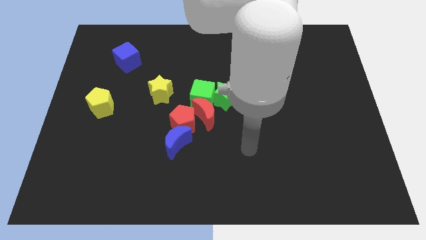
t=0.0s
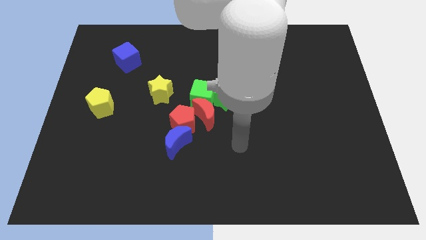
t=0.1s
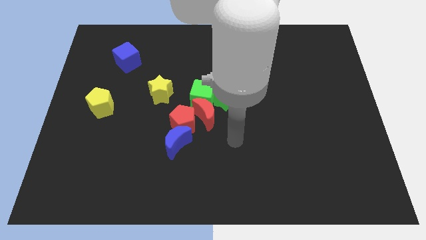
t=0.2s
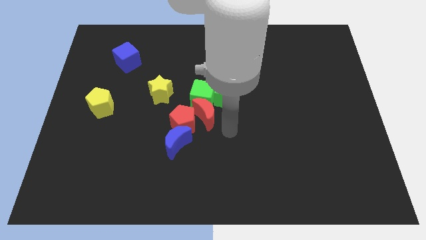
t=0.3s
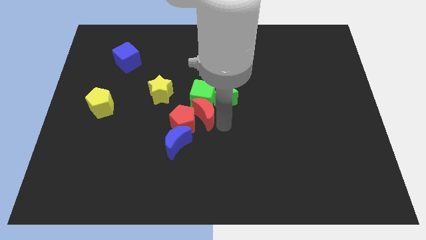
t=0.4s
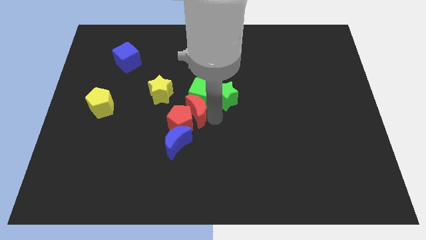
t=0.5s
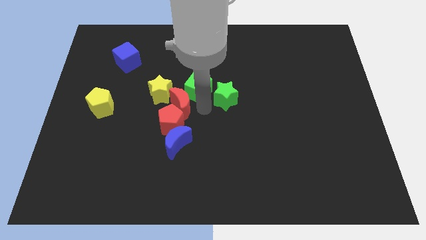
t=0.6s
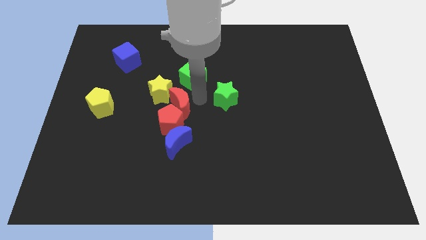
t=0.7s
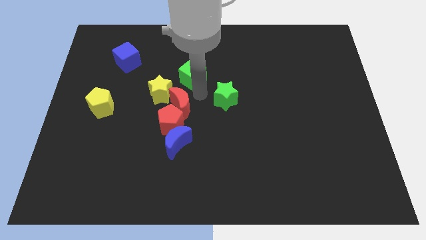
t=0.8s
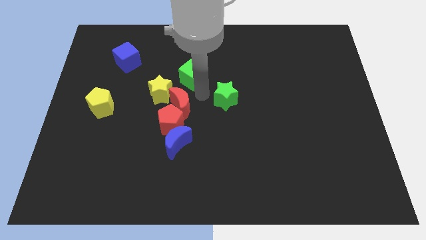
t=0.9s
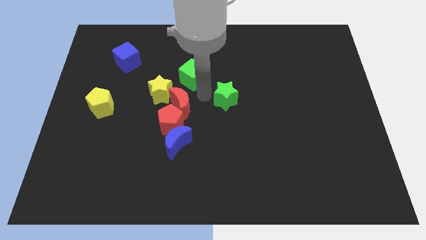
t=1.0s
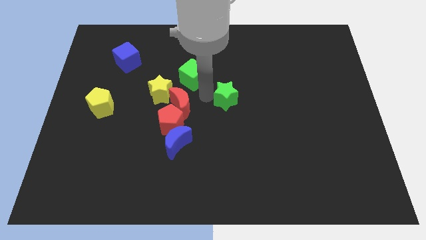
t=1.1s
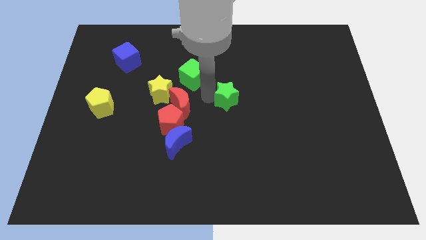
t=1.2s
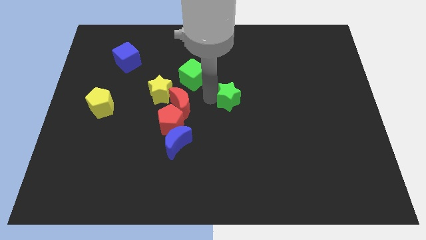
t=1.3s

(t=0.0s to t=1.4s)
move the green star away from the green cube and red moon

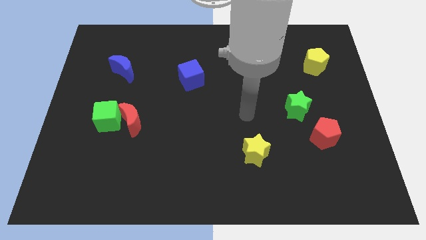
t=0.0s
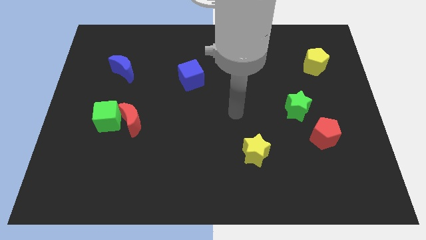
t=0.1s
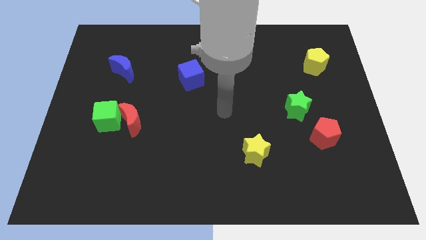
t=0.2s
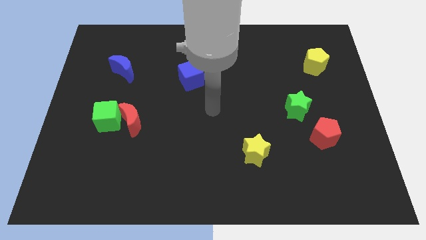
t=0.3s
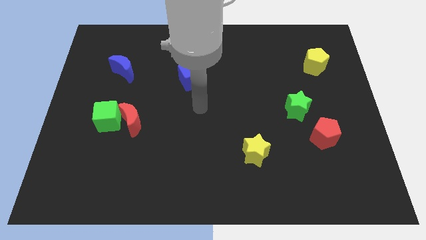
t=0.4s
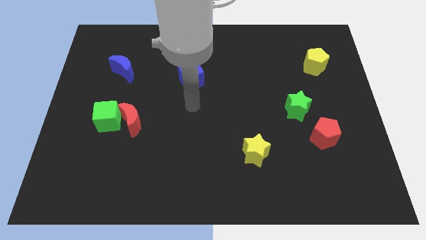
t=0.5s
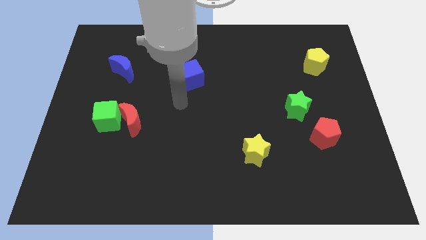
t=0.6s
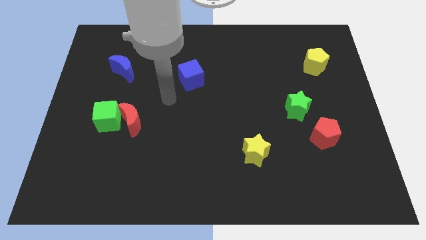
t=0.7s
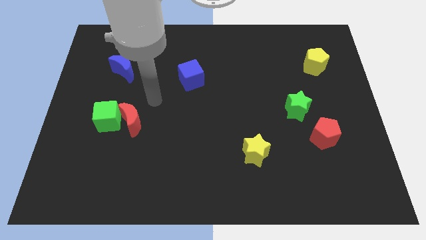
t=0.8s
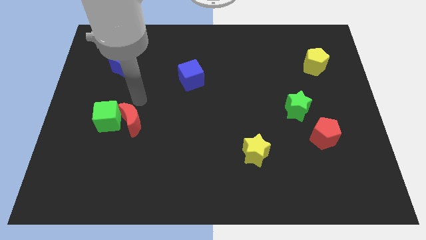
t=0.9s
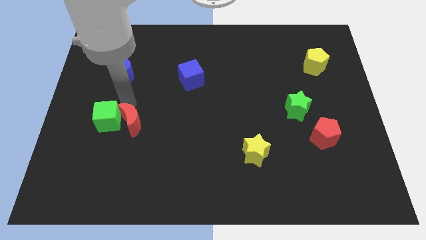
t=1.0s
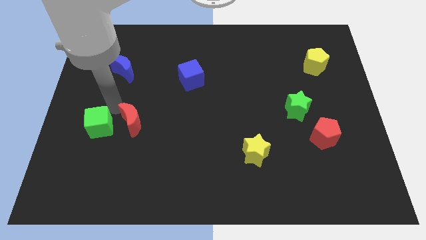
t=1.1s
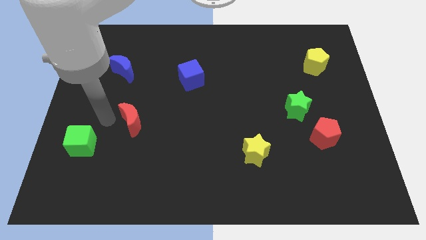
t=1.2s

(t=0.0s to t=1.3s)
pull the red moon apart from the green cube

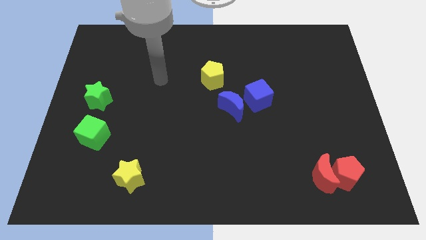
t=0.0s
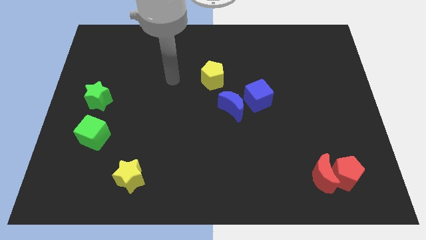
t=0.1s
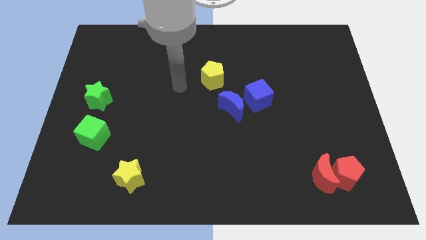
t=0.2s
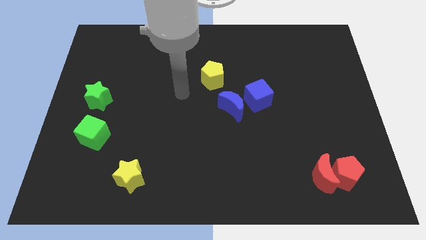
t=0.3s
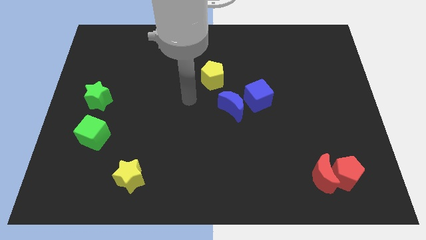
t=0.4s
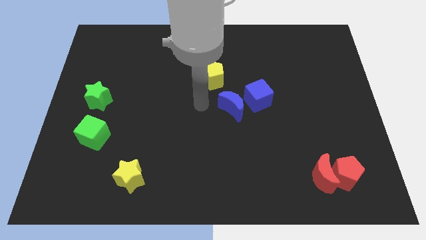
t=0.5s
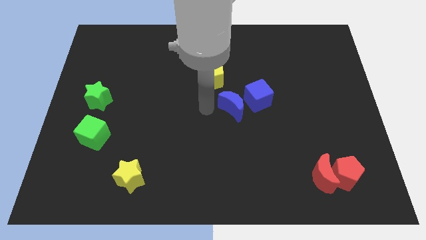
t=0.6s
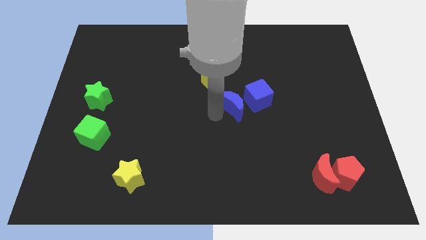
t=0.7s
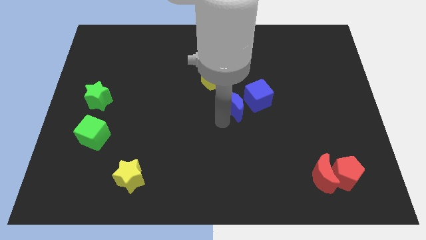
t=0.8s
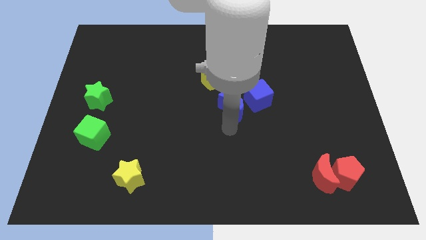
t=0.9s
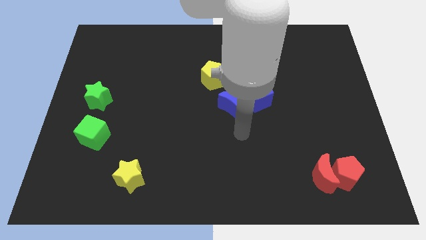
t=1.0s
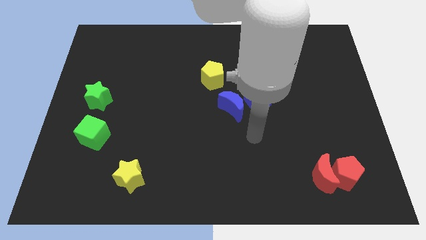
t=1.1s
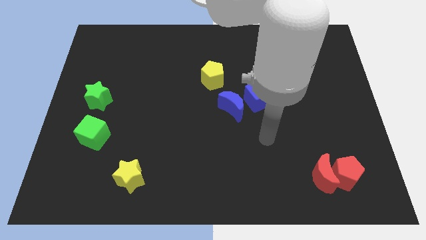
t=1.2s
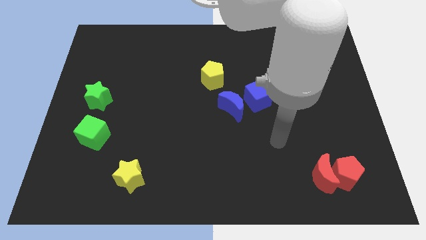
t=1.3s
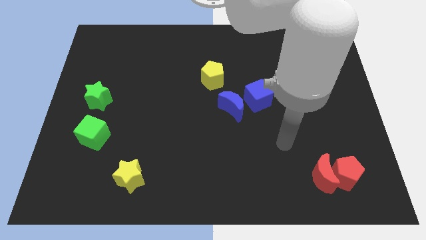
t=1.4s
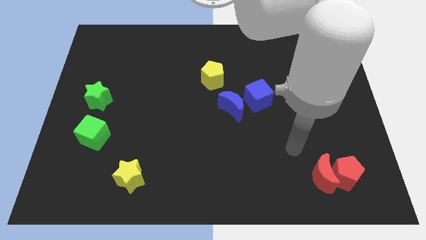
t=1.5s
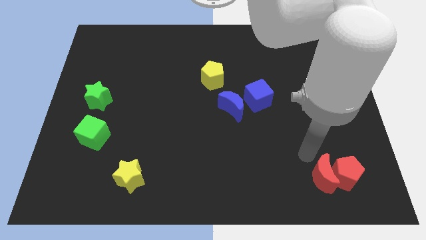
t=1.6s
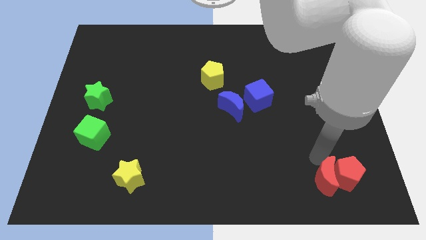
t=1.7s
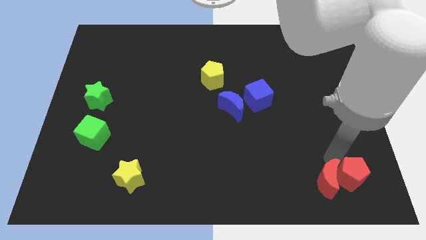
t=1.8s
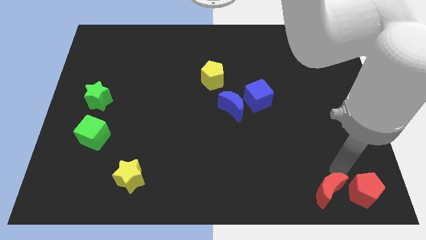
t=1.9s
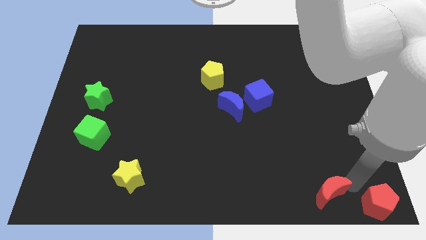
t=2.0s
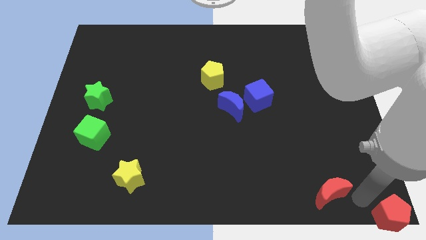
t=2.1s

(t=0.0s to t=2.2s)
move the red moon away from the red pentagon

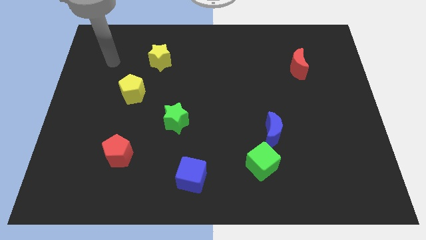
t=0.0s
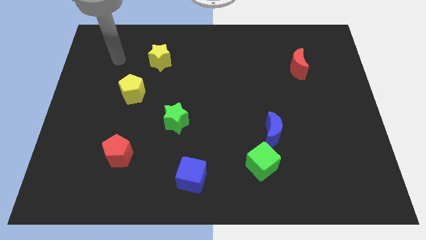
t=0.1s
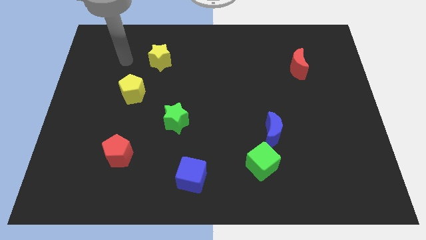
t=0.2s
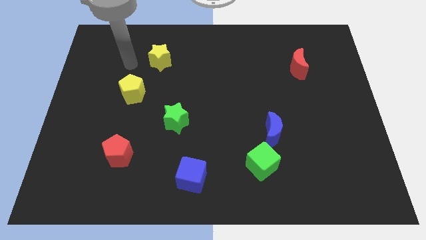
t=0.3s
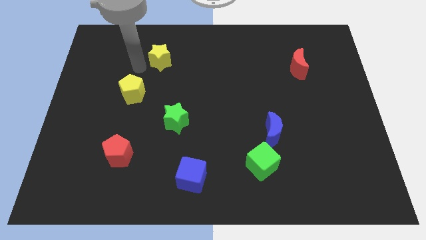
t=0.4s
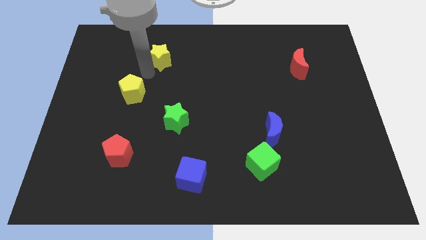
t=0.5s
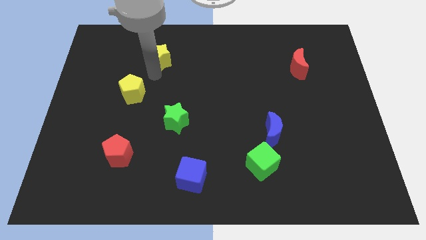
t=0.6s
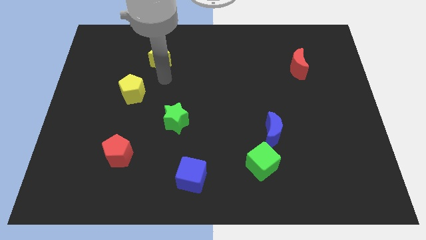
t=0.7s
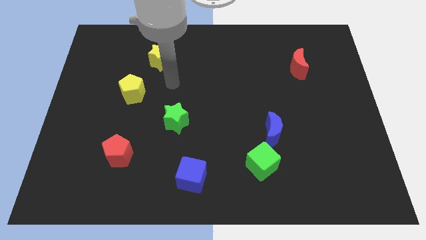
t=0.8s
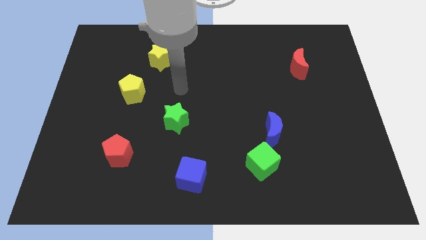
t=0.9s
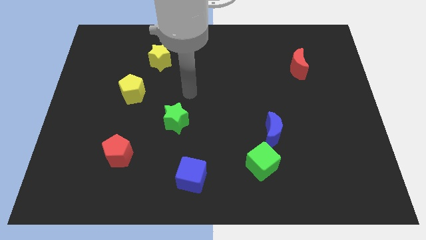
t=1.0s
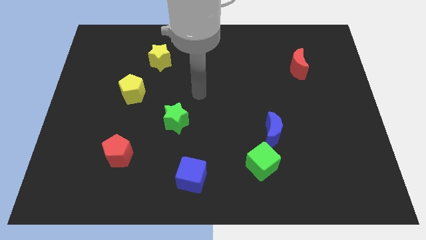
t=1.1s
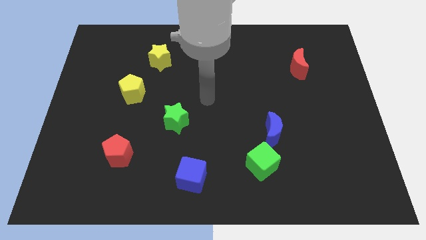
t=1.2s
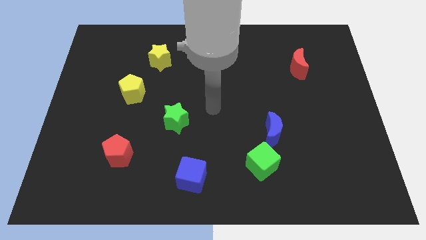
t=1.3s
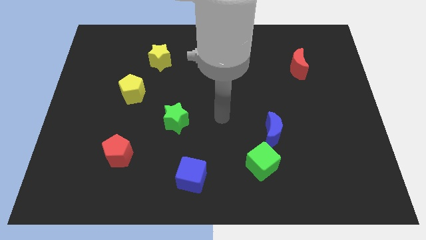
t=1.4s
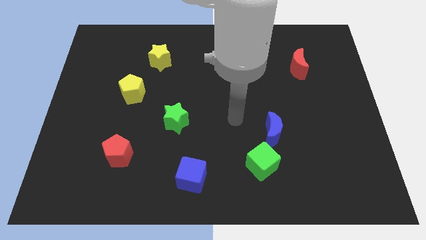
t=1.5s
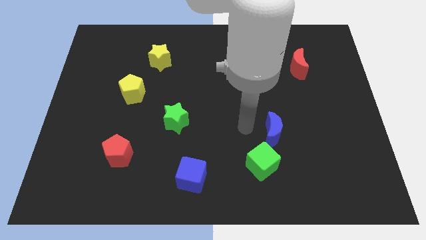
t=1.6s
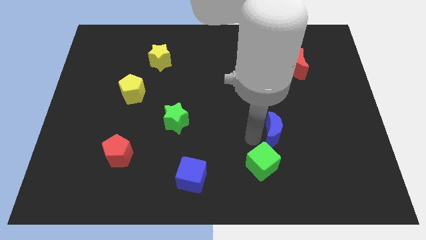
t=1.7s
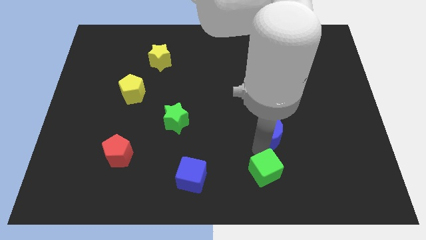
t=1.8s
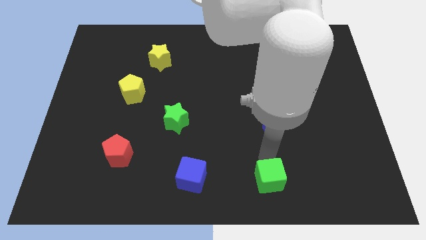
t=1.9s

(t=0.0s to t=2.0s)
move the blue moon away from the green cube

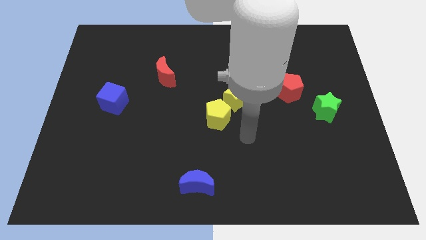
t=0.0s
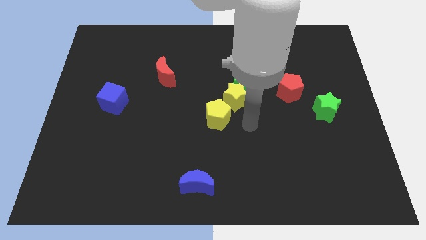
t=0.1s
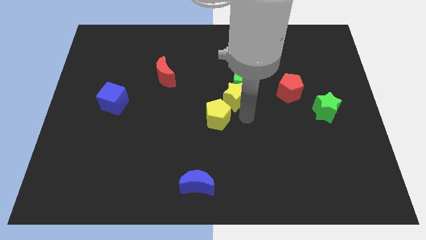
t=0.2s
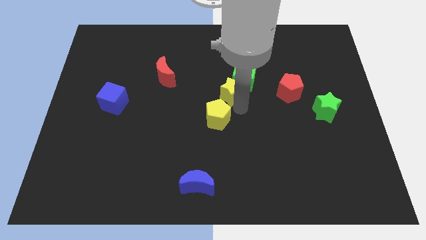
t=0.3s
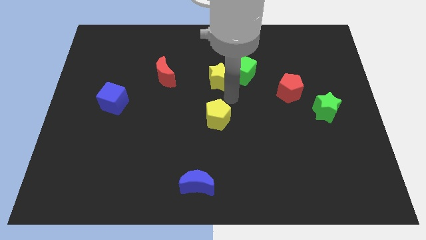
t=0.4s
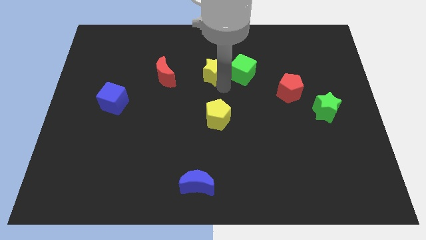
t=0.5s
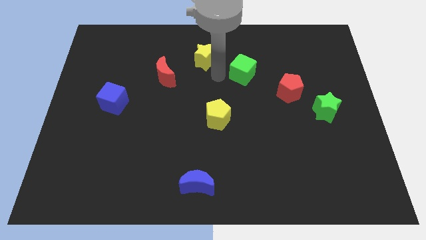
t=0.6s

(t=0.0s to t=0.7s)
move the green cube away from the yellow star

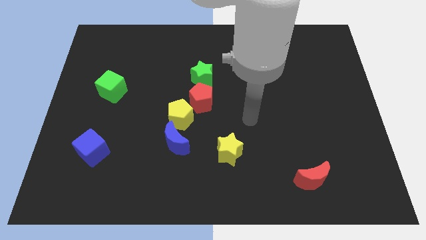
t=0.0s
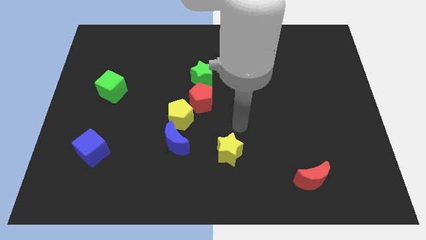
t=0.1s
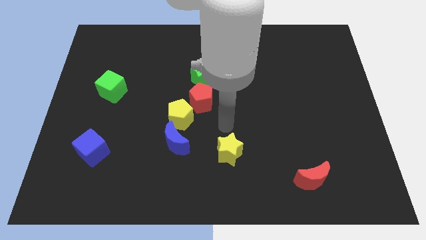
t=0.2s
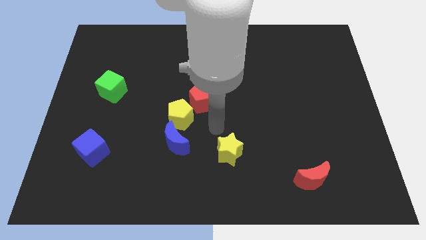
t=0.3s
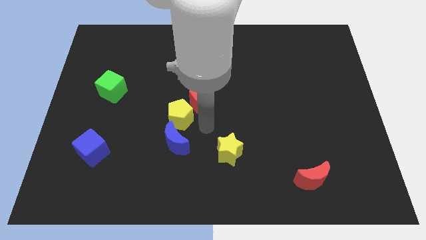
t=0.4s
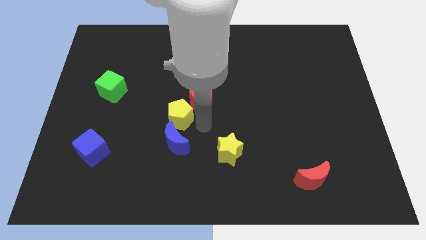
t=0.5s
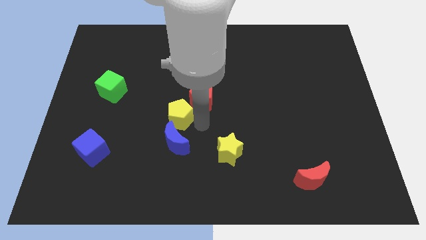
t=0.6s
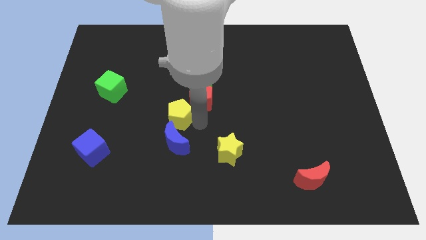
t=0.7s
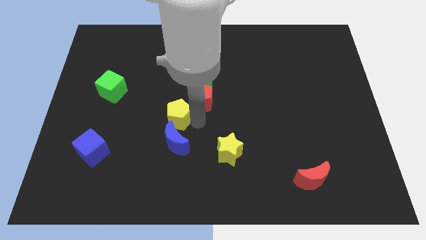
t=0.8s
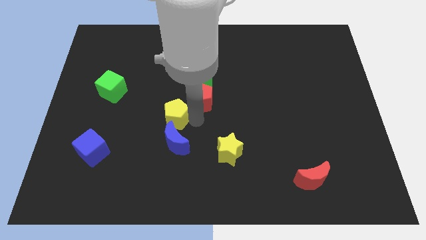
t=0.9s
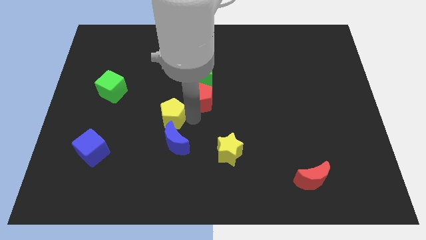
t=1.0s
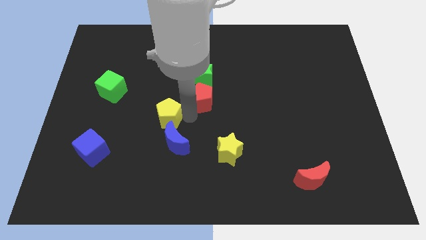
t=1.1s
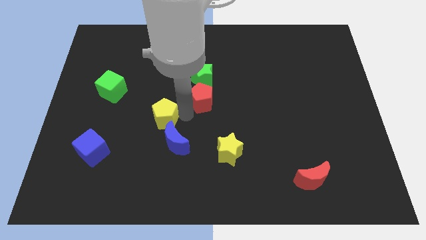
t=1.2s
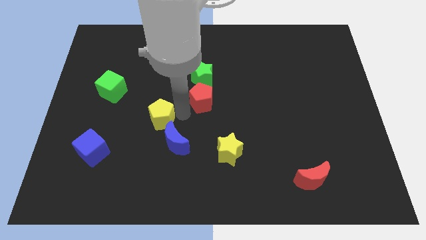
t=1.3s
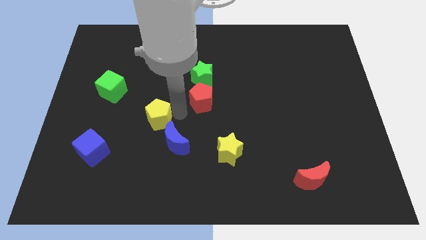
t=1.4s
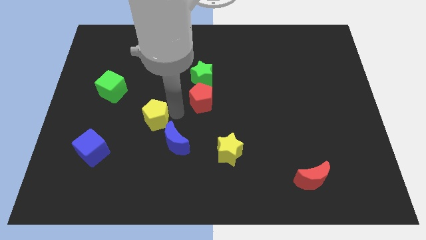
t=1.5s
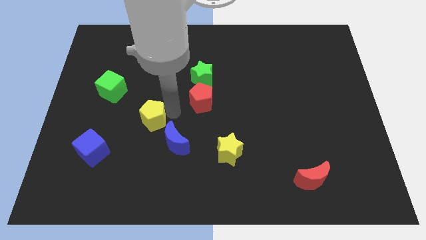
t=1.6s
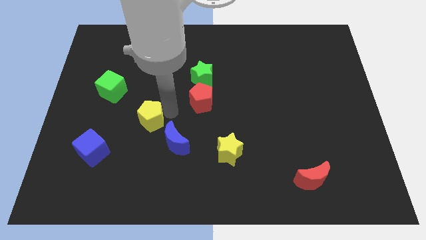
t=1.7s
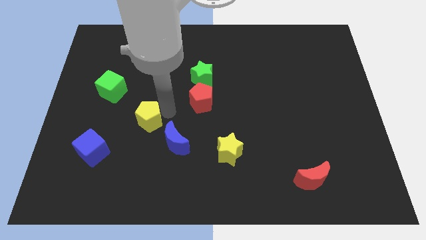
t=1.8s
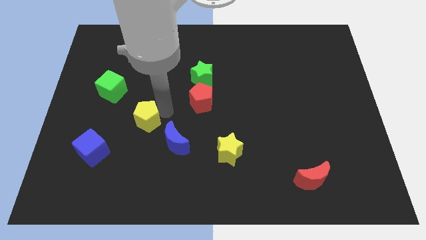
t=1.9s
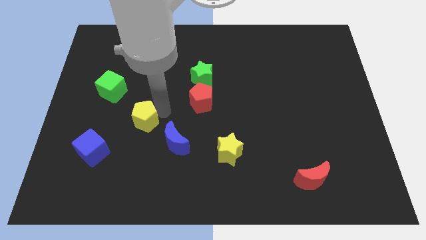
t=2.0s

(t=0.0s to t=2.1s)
pull the yellow pentagon apart from the red pentagon and blue moon
